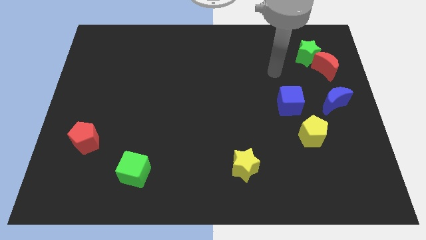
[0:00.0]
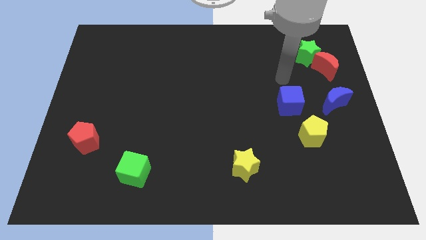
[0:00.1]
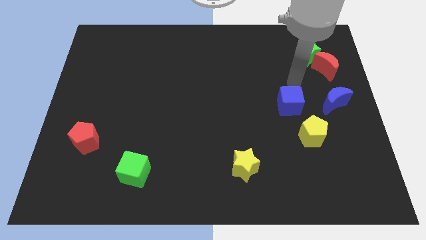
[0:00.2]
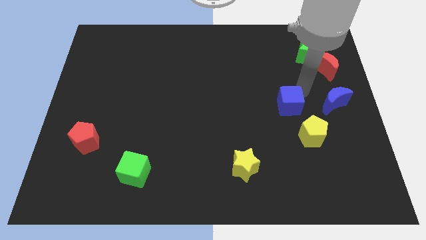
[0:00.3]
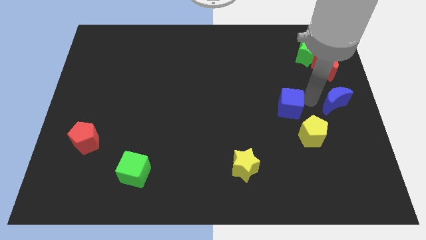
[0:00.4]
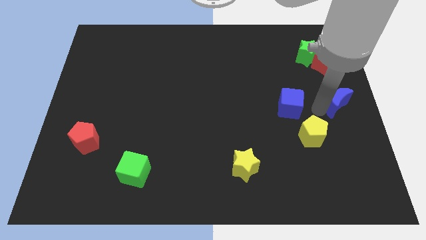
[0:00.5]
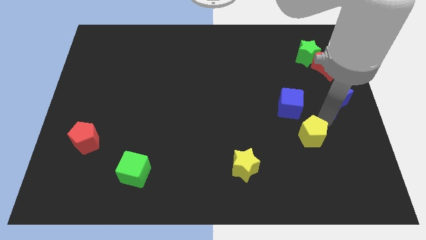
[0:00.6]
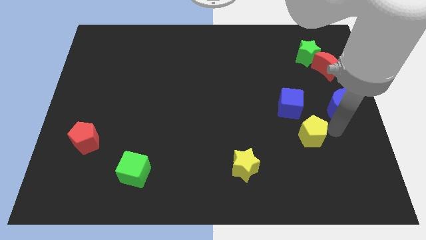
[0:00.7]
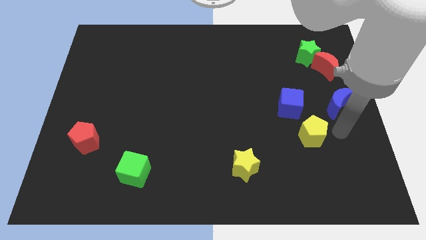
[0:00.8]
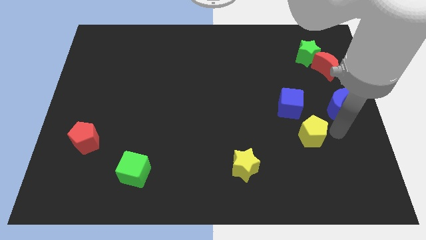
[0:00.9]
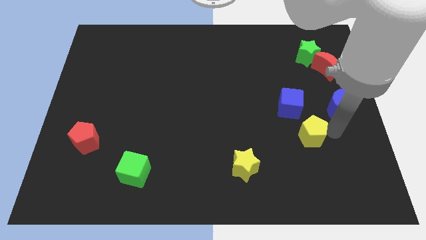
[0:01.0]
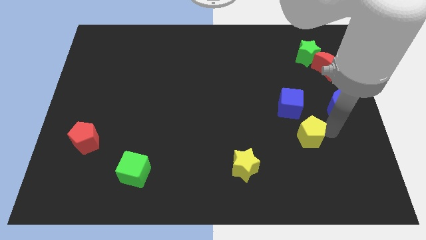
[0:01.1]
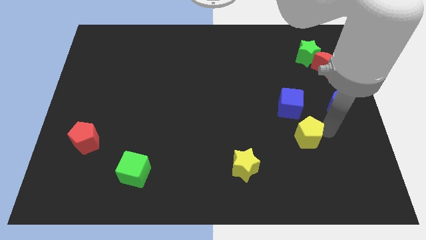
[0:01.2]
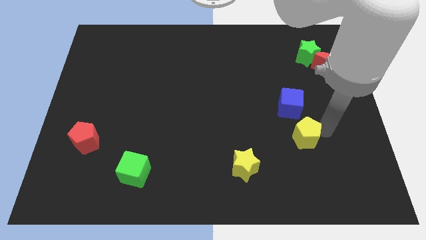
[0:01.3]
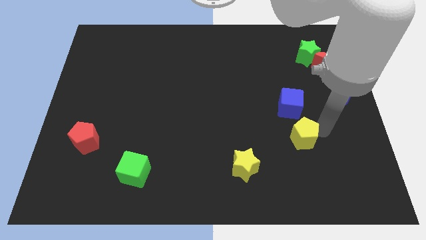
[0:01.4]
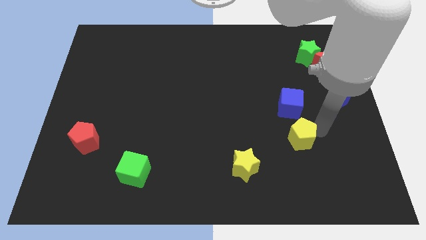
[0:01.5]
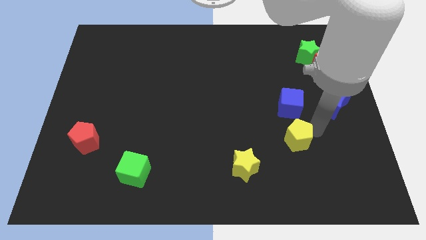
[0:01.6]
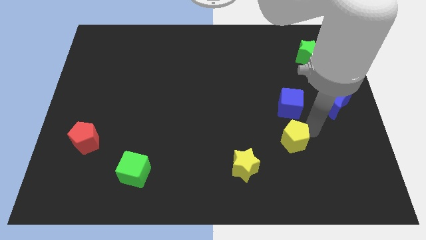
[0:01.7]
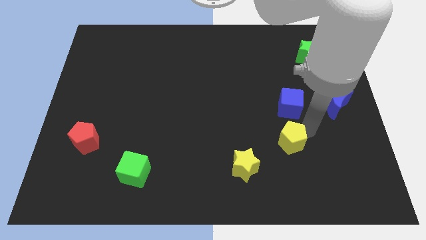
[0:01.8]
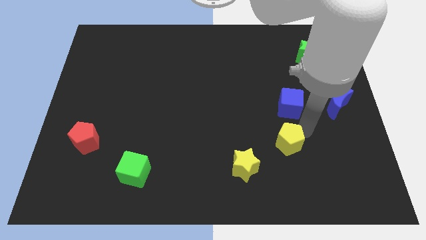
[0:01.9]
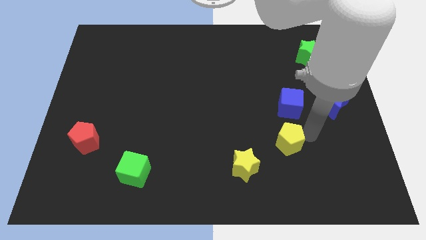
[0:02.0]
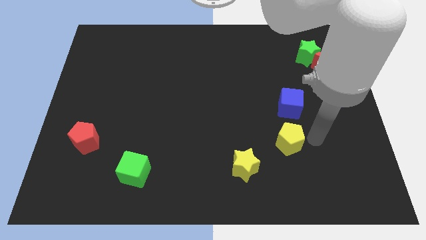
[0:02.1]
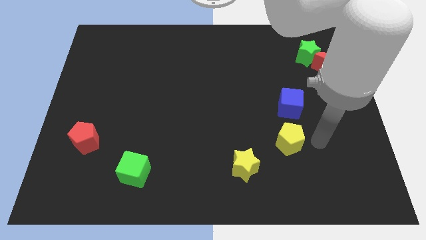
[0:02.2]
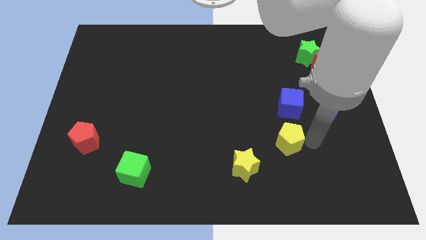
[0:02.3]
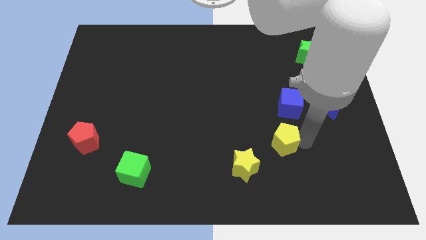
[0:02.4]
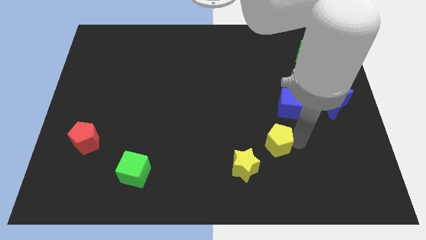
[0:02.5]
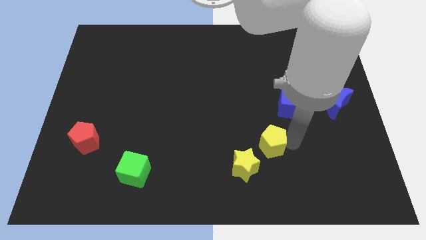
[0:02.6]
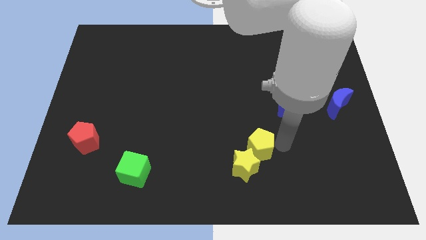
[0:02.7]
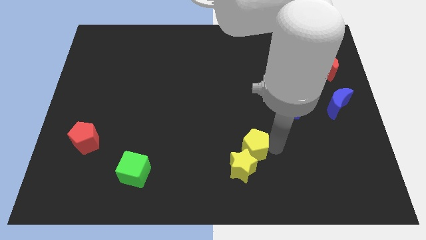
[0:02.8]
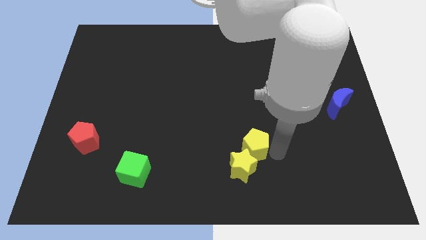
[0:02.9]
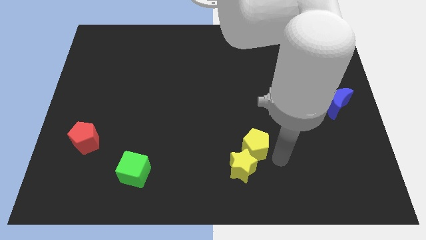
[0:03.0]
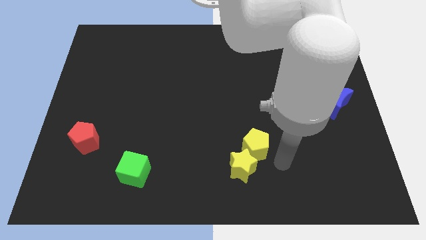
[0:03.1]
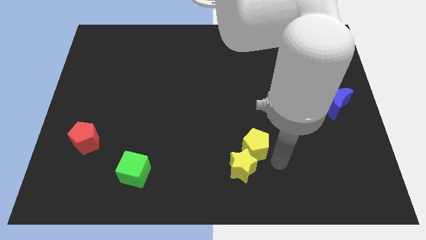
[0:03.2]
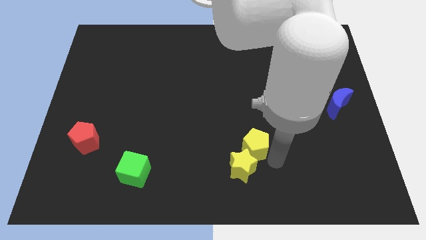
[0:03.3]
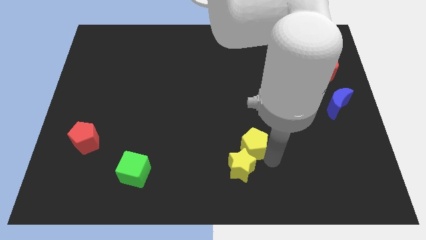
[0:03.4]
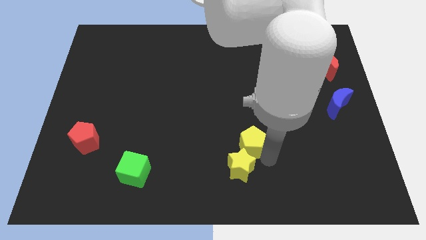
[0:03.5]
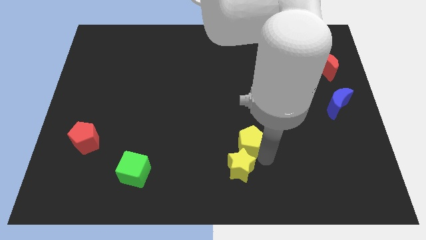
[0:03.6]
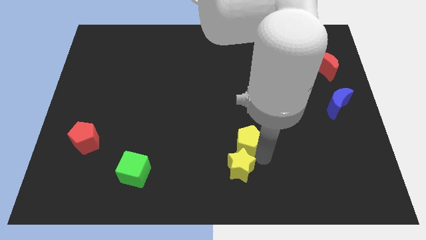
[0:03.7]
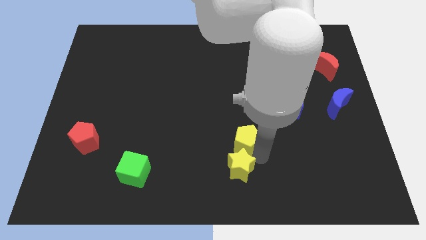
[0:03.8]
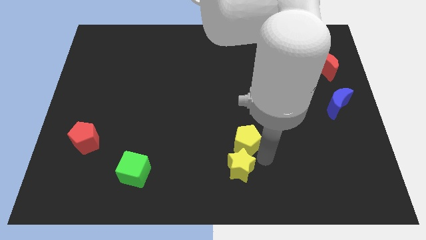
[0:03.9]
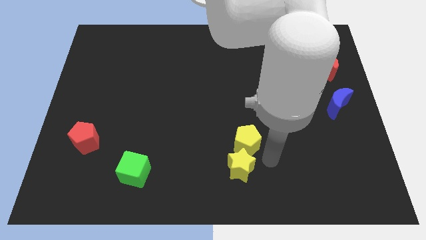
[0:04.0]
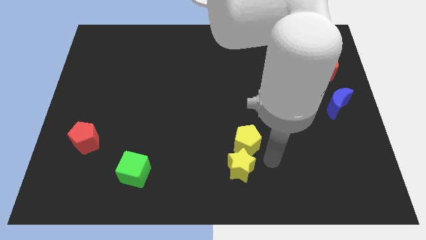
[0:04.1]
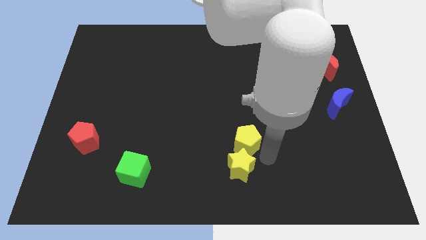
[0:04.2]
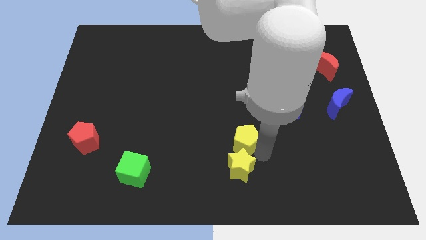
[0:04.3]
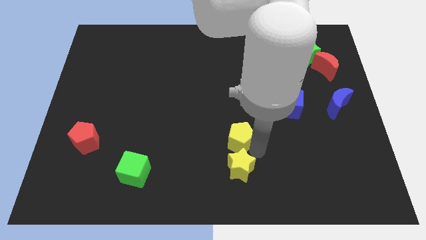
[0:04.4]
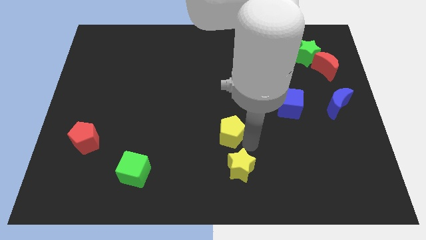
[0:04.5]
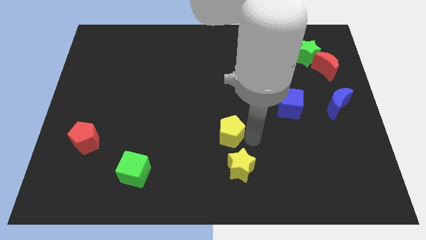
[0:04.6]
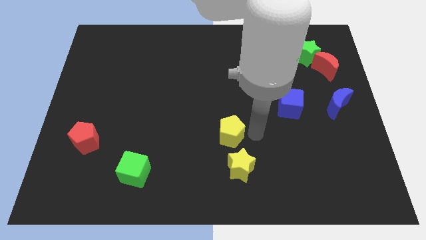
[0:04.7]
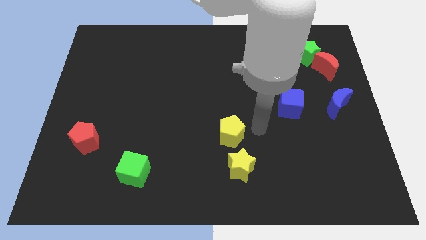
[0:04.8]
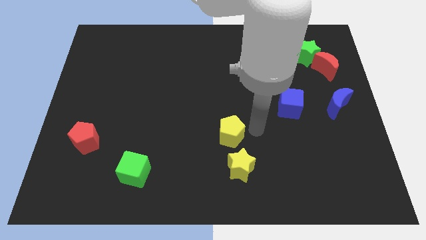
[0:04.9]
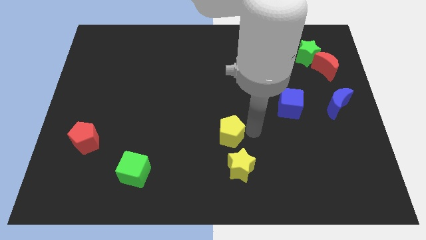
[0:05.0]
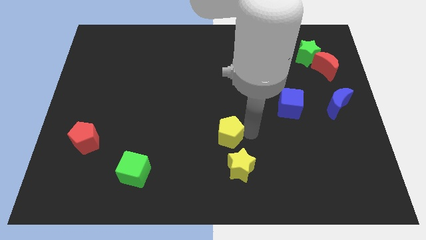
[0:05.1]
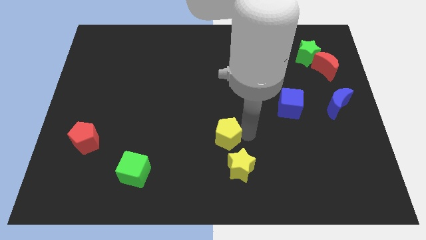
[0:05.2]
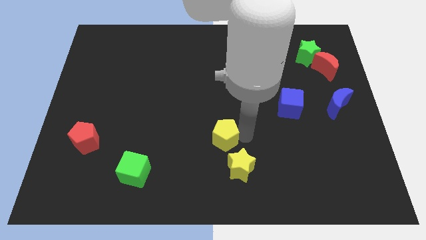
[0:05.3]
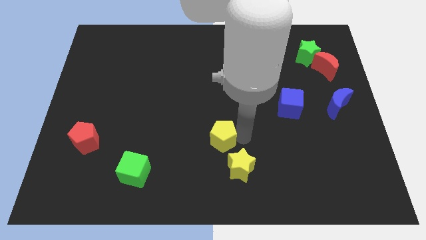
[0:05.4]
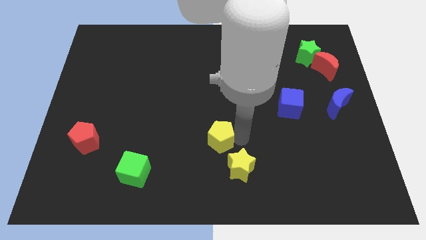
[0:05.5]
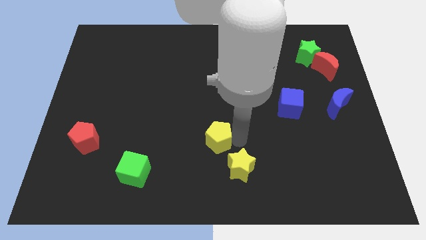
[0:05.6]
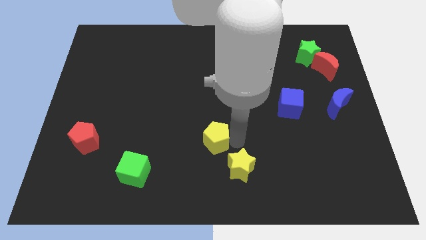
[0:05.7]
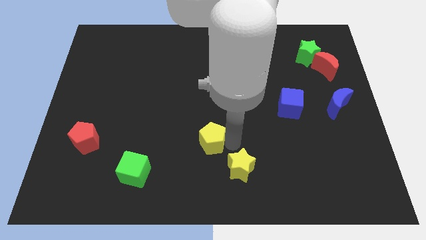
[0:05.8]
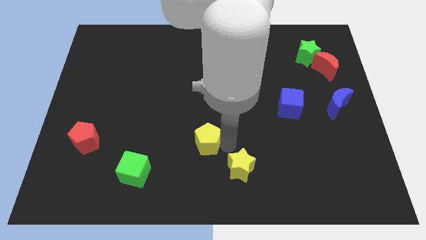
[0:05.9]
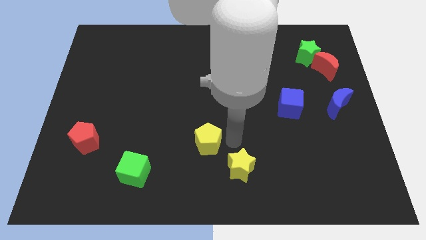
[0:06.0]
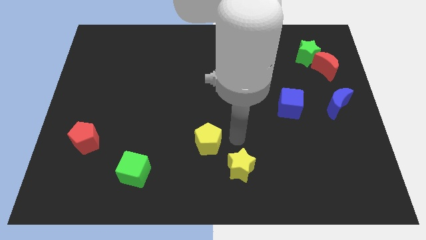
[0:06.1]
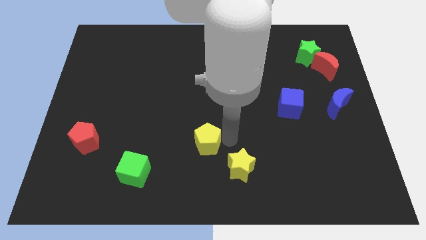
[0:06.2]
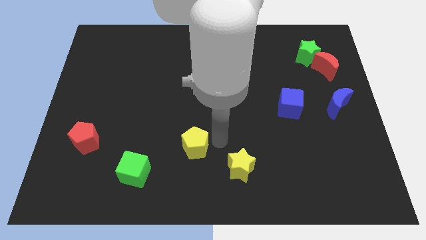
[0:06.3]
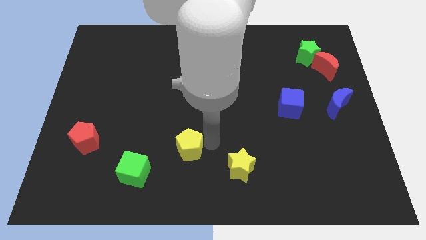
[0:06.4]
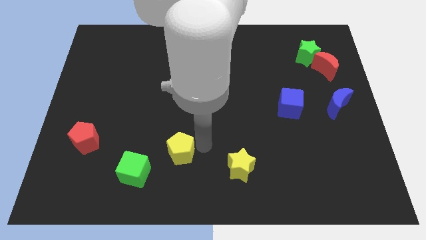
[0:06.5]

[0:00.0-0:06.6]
slide the yellow pentagon to the top right of the green cube

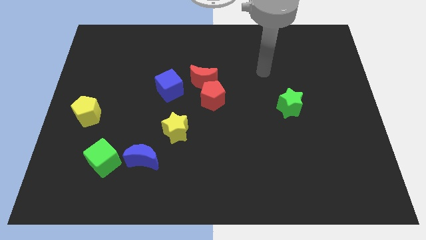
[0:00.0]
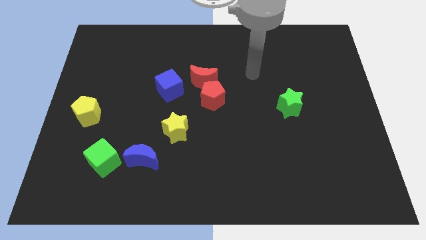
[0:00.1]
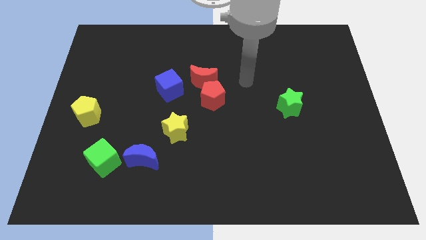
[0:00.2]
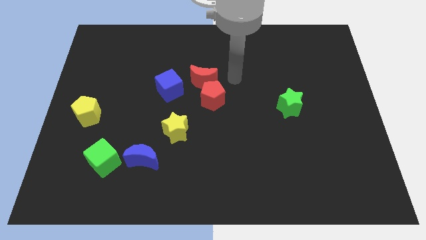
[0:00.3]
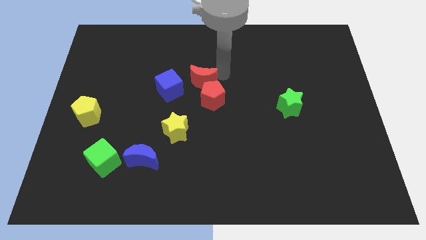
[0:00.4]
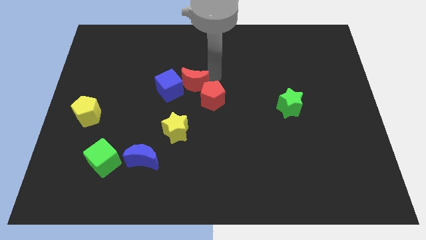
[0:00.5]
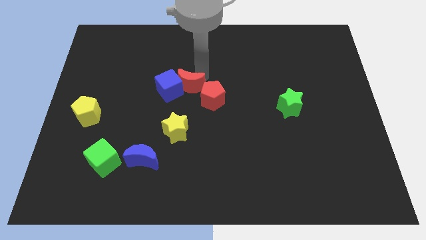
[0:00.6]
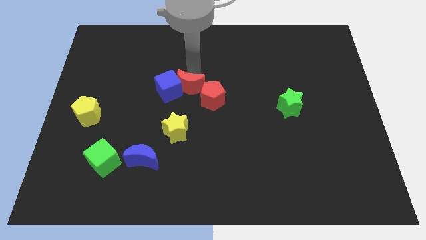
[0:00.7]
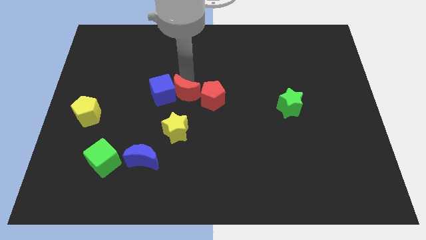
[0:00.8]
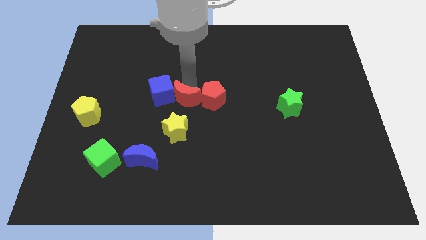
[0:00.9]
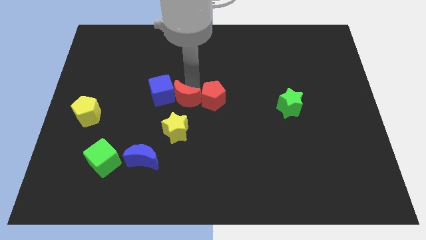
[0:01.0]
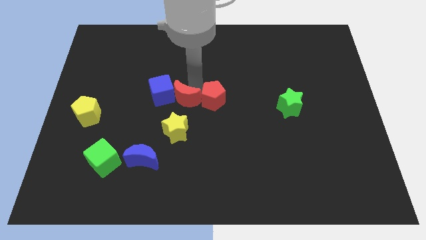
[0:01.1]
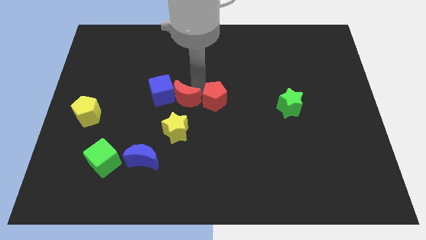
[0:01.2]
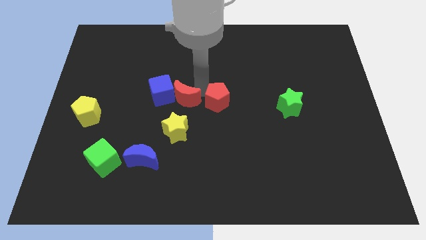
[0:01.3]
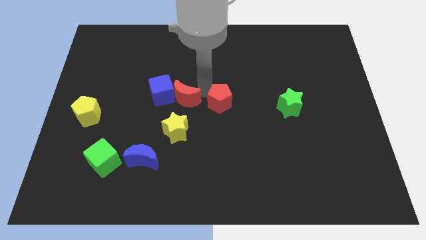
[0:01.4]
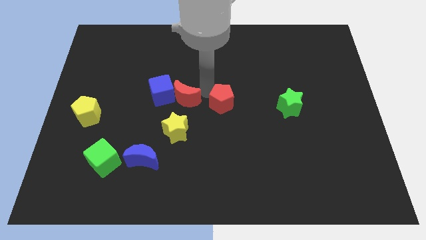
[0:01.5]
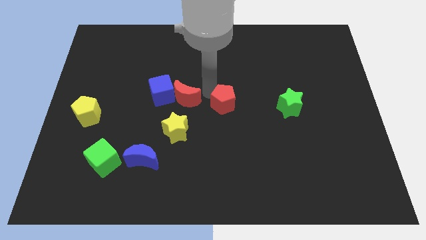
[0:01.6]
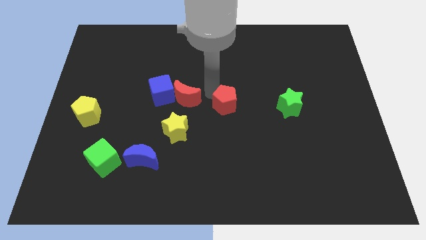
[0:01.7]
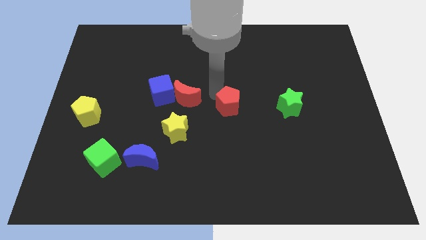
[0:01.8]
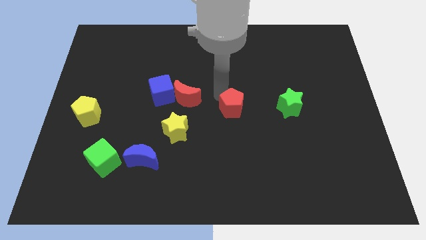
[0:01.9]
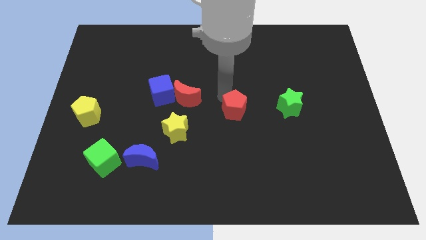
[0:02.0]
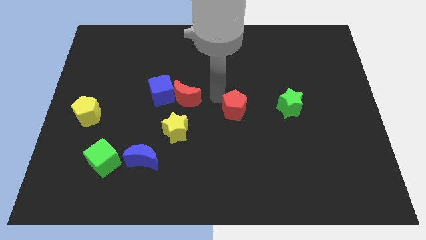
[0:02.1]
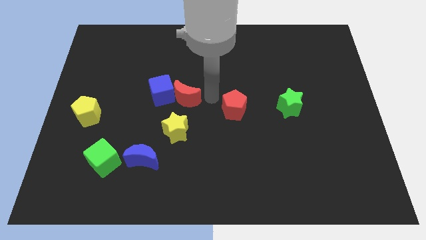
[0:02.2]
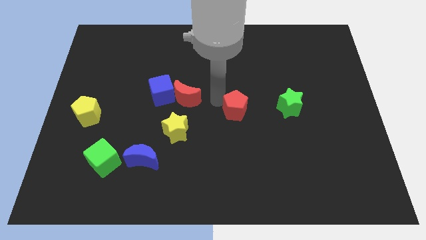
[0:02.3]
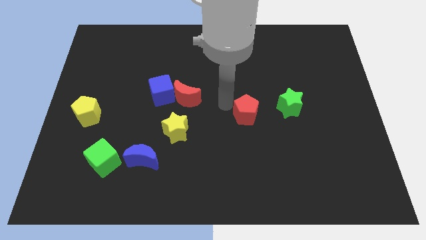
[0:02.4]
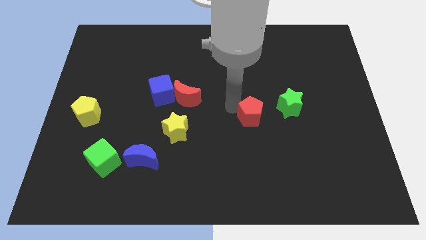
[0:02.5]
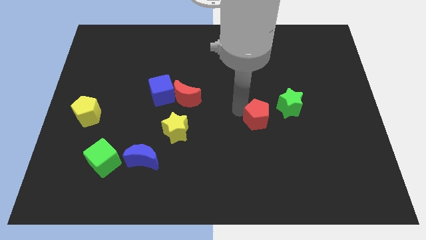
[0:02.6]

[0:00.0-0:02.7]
slide the red pentagon diagonally down and to the left of the green star
